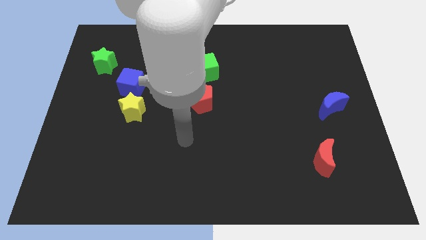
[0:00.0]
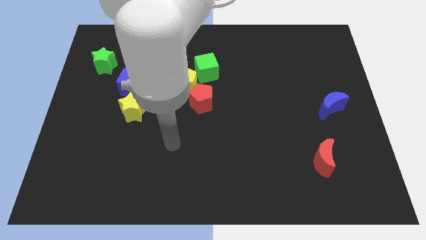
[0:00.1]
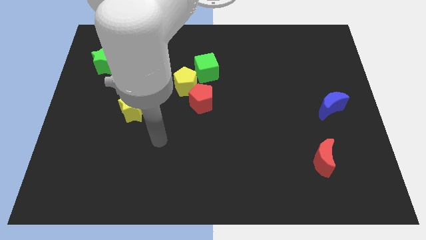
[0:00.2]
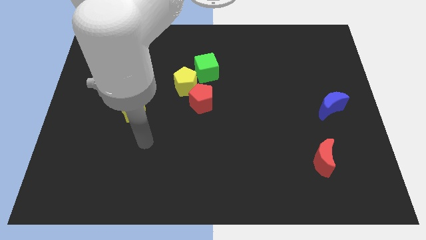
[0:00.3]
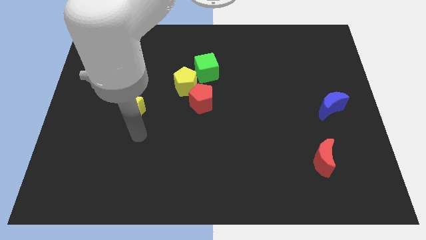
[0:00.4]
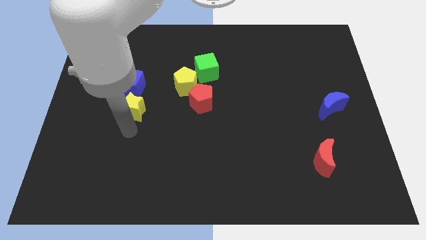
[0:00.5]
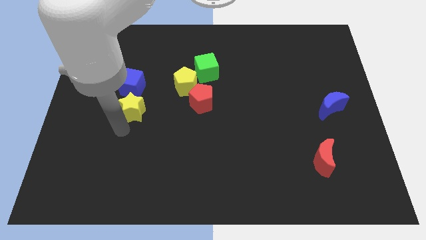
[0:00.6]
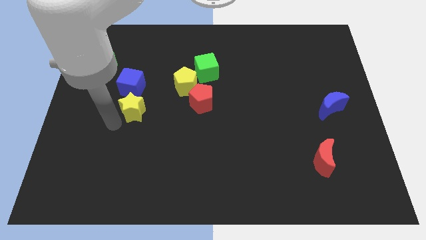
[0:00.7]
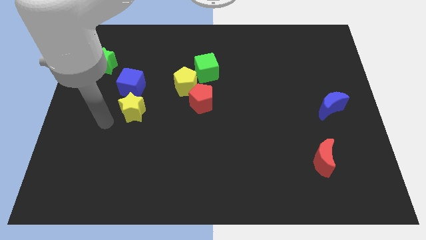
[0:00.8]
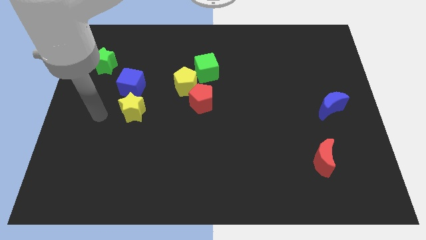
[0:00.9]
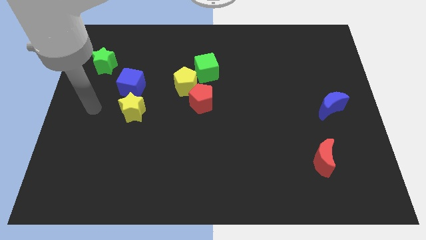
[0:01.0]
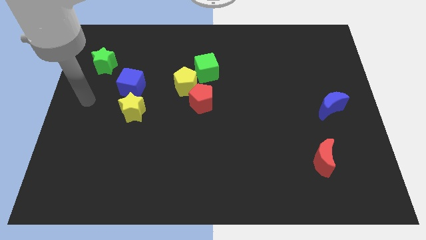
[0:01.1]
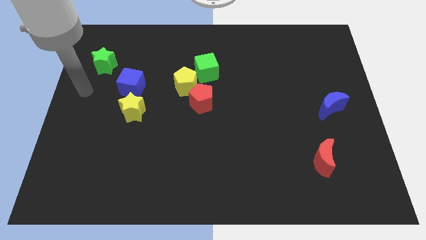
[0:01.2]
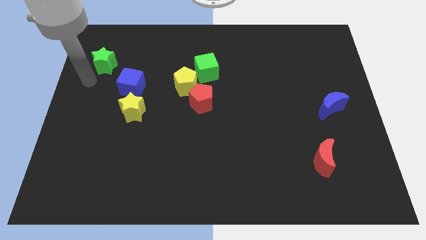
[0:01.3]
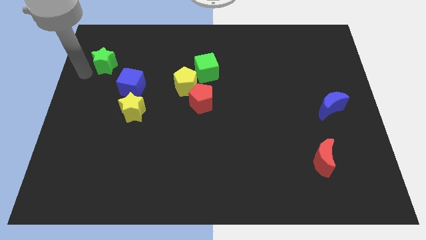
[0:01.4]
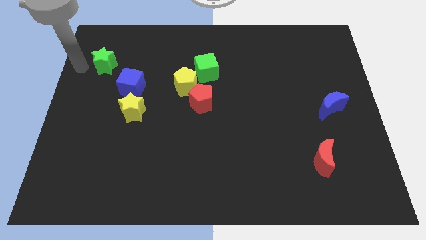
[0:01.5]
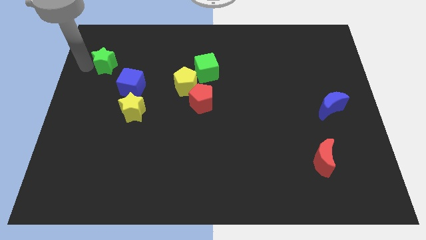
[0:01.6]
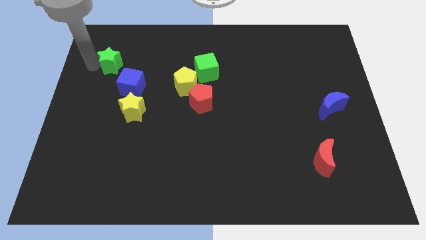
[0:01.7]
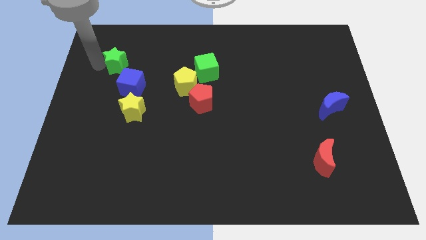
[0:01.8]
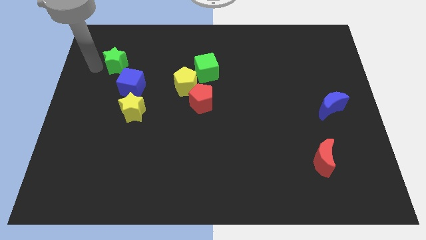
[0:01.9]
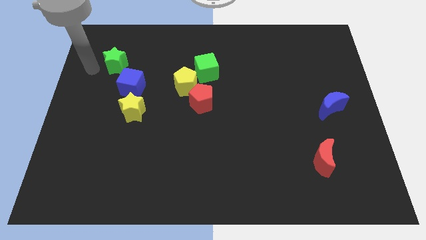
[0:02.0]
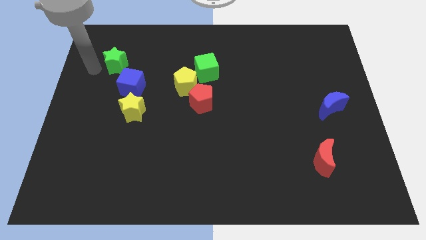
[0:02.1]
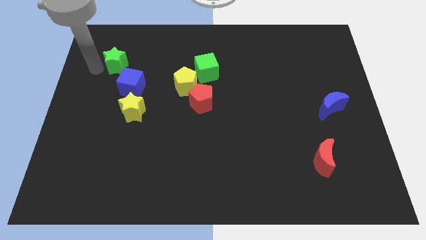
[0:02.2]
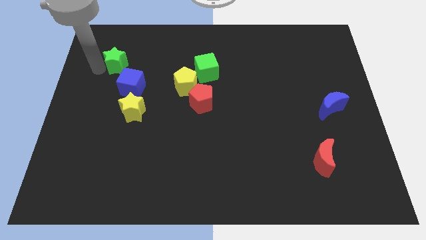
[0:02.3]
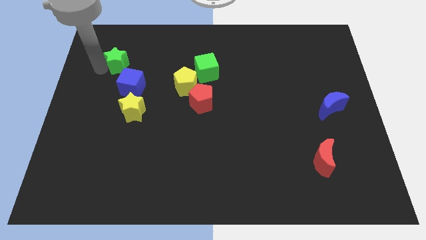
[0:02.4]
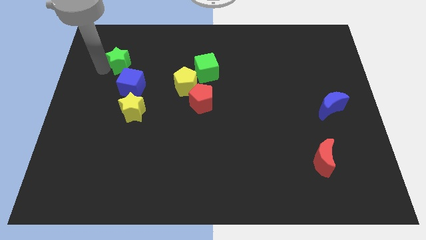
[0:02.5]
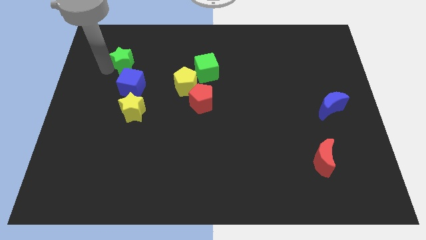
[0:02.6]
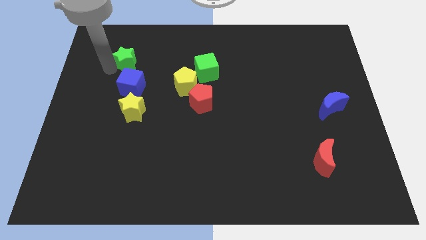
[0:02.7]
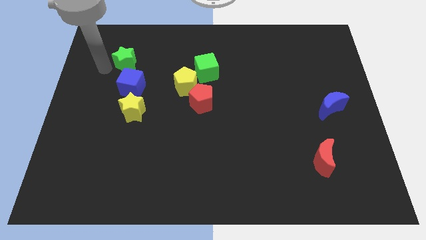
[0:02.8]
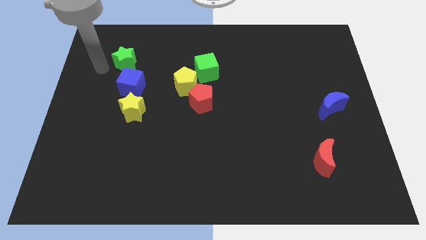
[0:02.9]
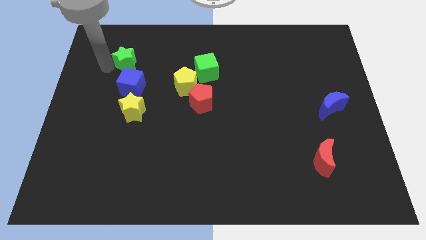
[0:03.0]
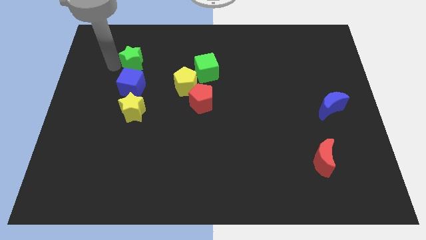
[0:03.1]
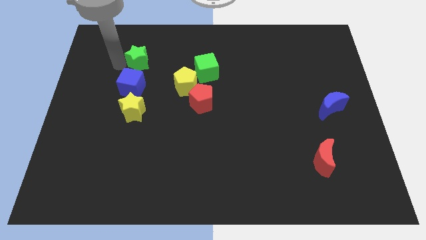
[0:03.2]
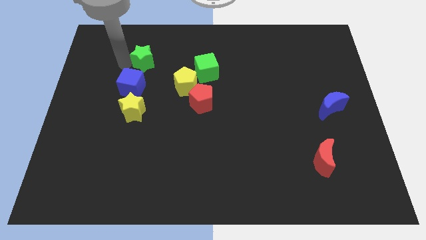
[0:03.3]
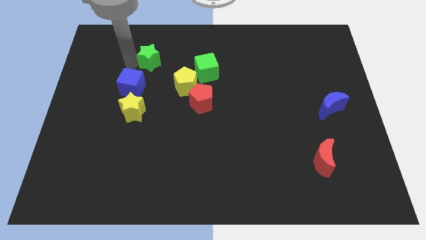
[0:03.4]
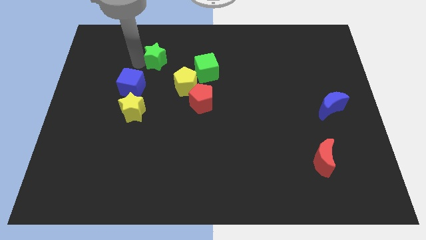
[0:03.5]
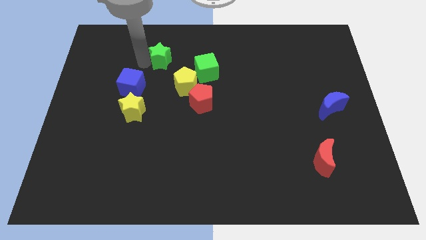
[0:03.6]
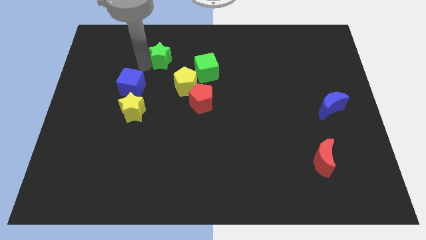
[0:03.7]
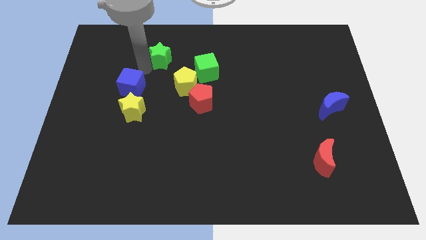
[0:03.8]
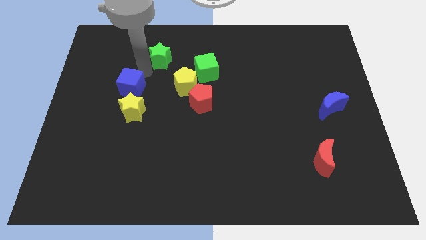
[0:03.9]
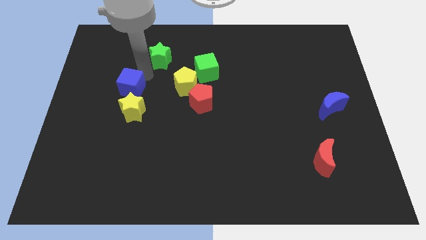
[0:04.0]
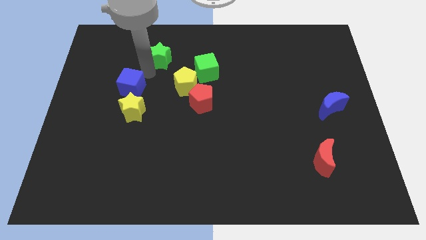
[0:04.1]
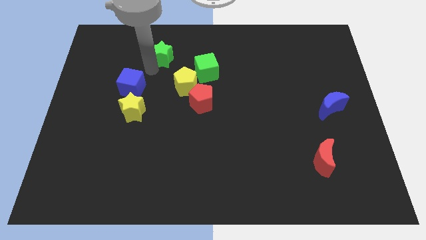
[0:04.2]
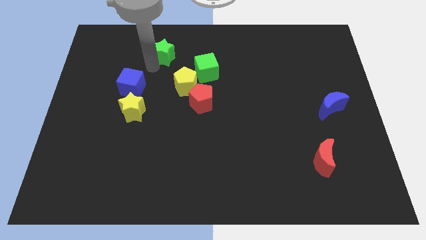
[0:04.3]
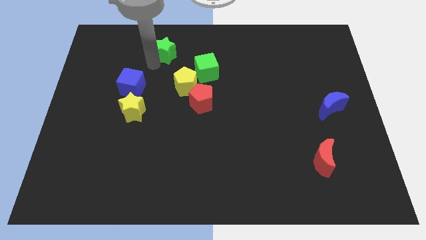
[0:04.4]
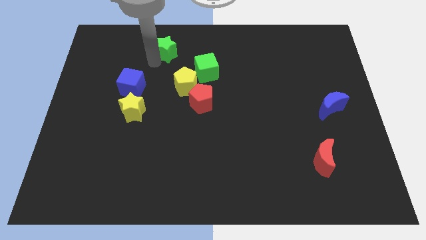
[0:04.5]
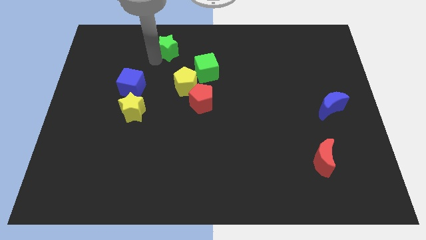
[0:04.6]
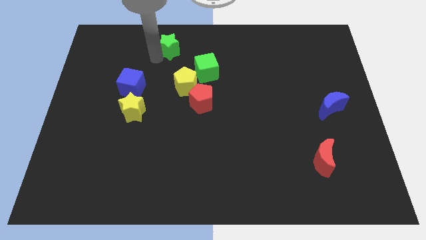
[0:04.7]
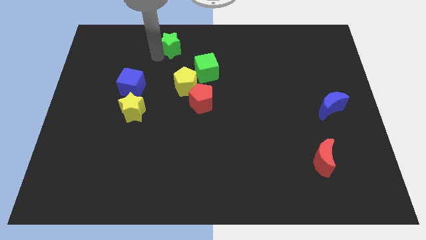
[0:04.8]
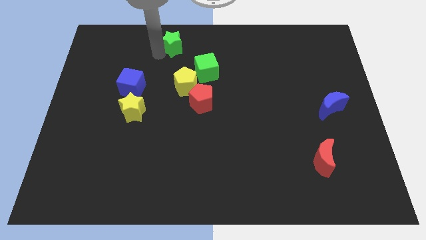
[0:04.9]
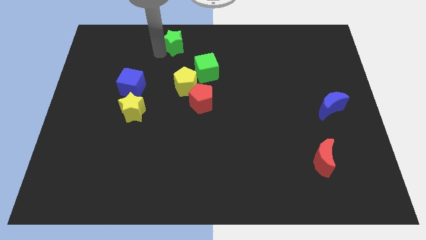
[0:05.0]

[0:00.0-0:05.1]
slide the green star to the top

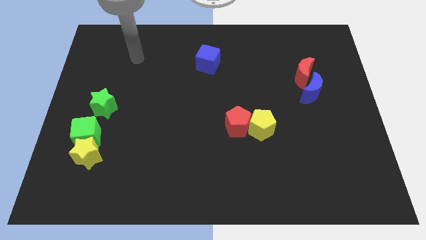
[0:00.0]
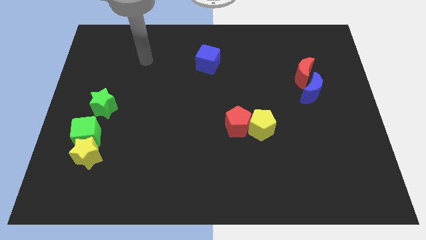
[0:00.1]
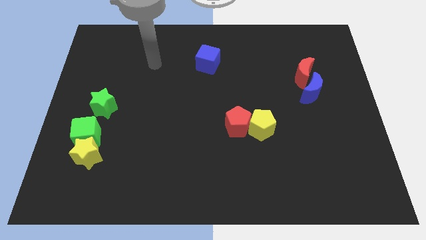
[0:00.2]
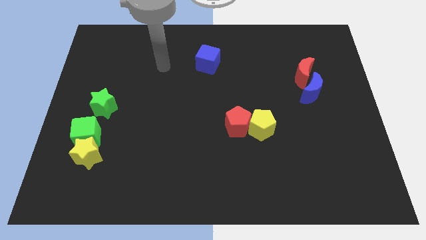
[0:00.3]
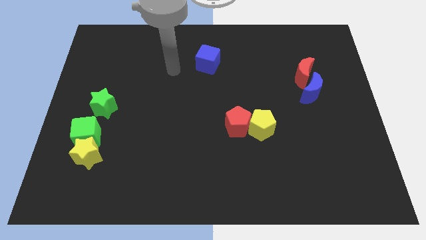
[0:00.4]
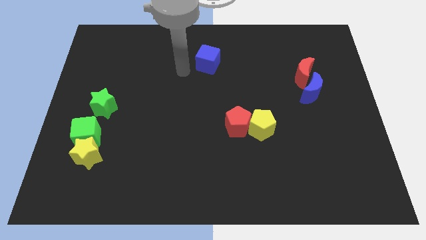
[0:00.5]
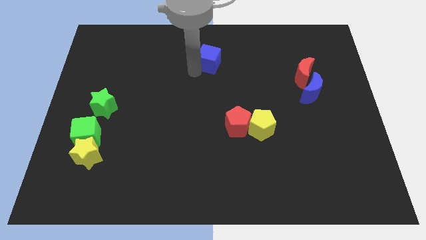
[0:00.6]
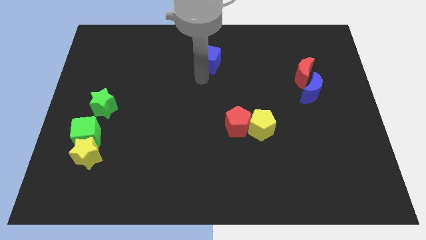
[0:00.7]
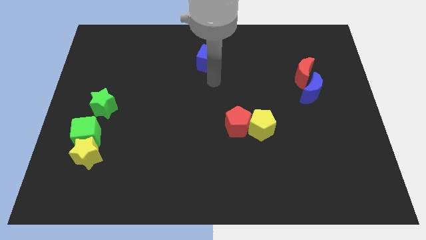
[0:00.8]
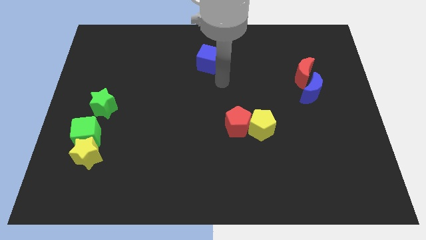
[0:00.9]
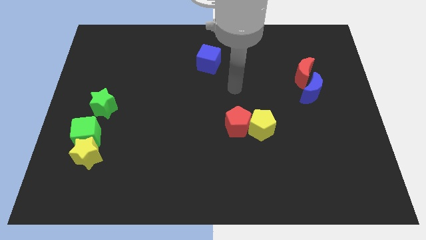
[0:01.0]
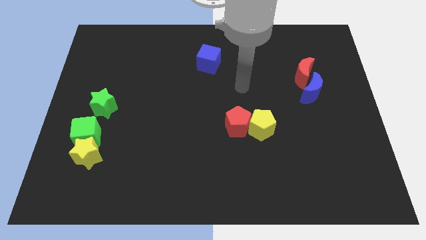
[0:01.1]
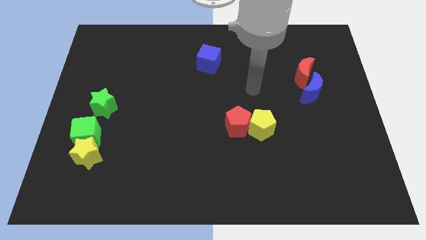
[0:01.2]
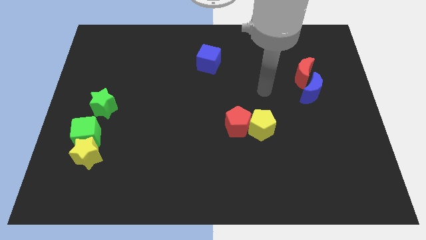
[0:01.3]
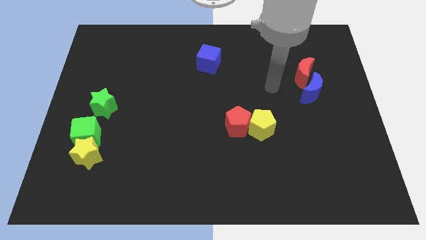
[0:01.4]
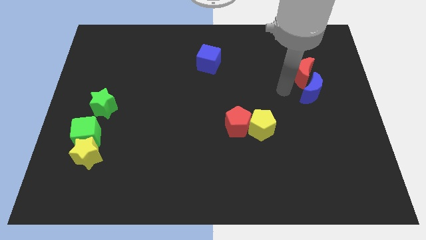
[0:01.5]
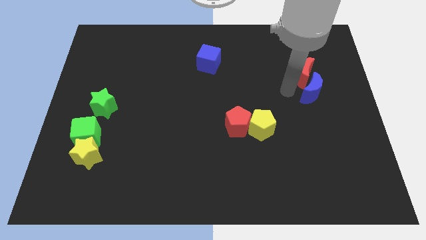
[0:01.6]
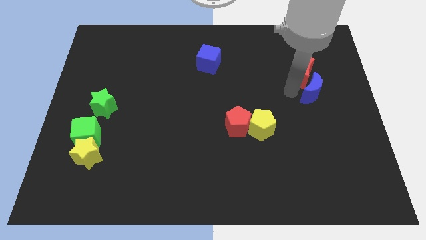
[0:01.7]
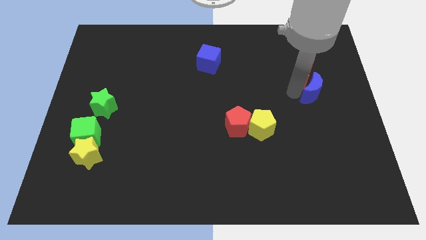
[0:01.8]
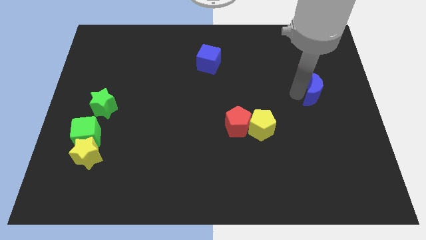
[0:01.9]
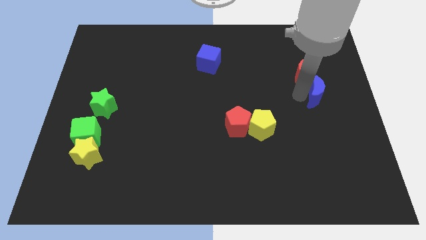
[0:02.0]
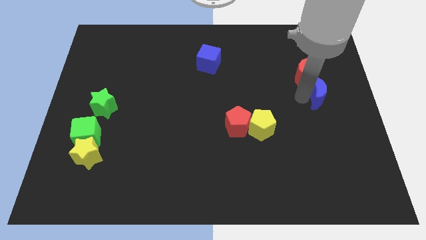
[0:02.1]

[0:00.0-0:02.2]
push the blue moon to the right side
